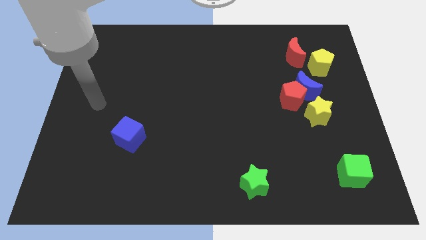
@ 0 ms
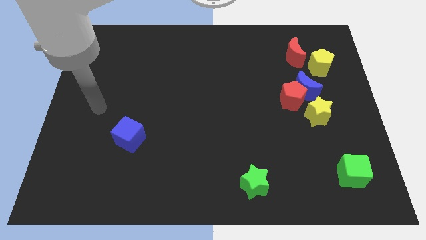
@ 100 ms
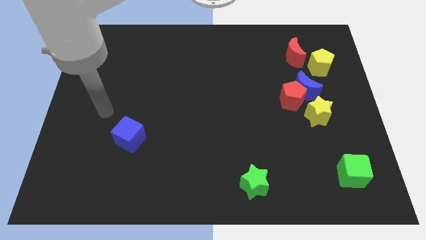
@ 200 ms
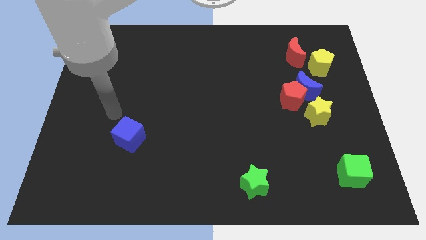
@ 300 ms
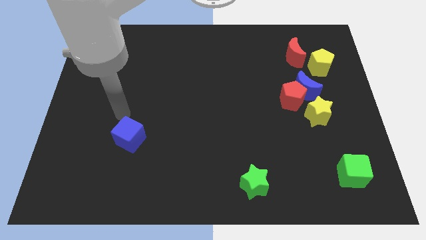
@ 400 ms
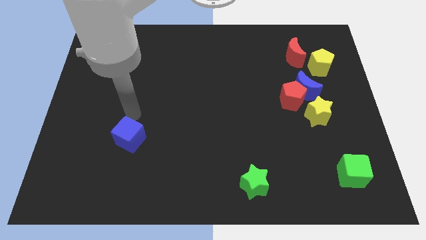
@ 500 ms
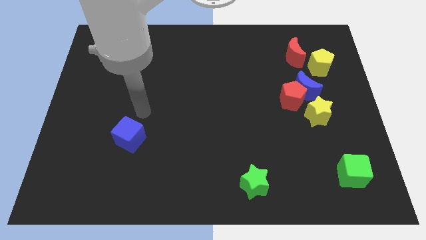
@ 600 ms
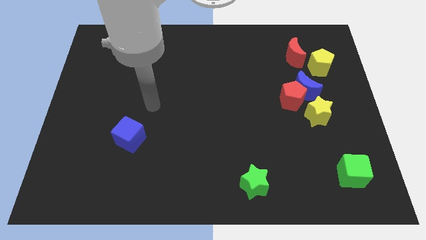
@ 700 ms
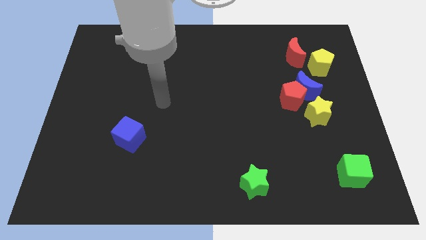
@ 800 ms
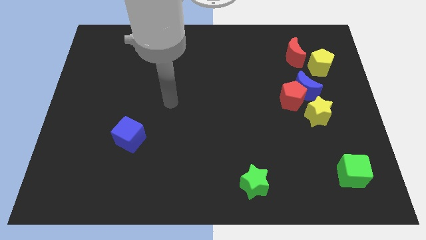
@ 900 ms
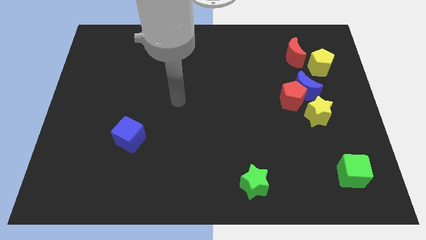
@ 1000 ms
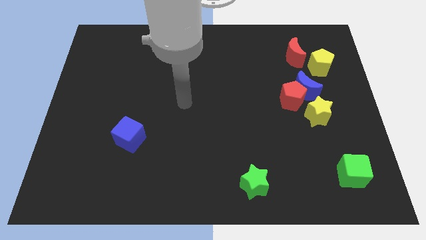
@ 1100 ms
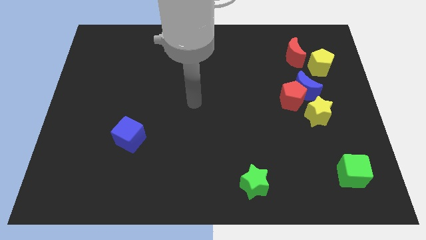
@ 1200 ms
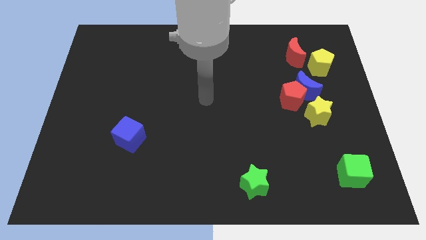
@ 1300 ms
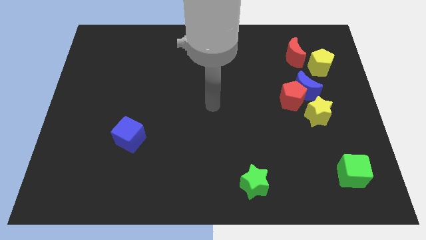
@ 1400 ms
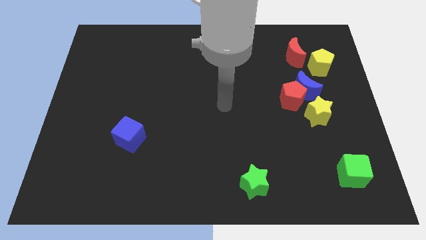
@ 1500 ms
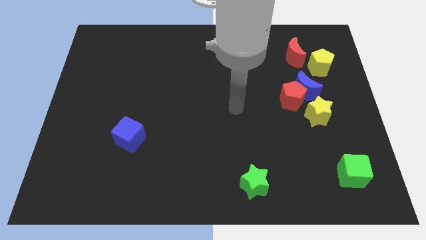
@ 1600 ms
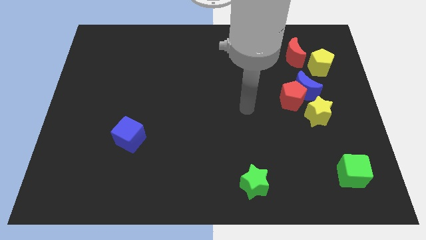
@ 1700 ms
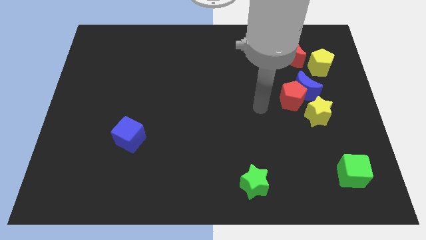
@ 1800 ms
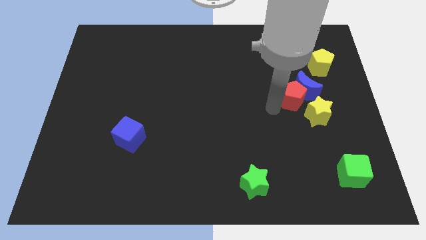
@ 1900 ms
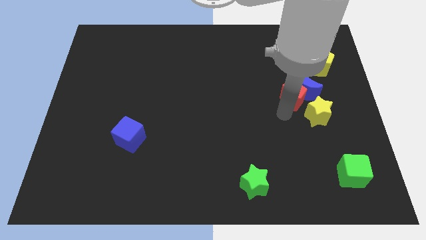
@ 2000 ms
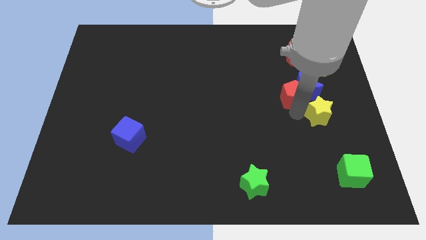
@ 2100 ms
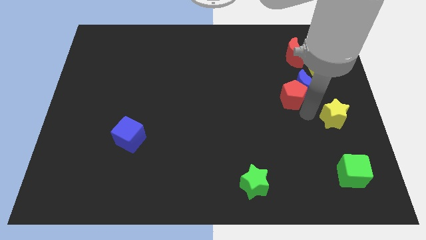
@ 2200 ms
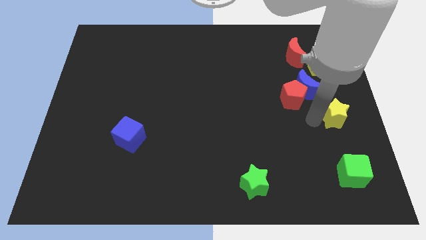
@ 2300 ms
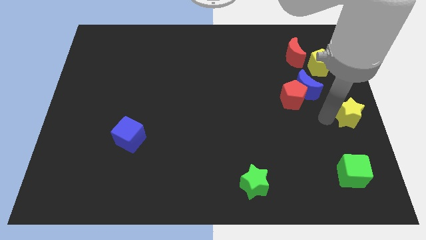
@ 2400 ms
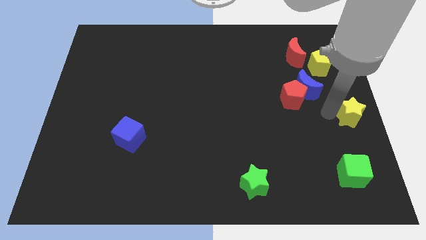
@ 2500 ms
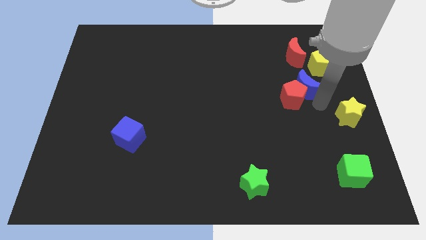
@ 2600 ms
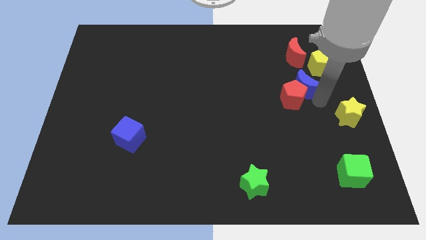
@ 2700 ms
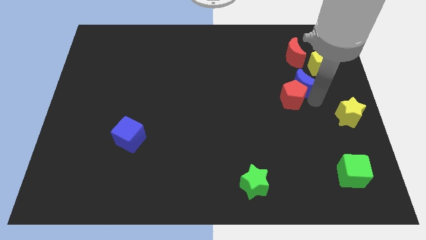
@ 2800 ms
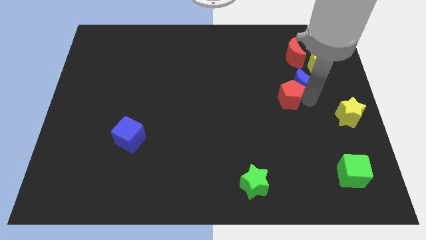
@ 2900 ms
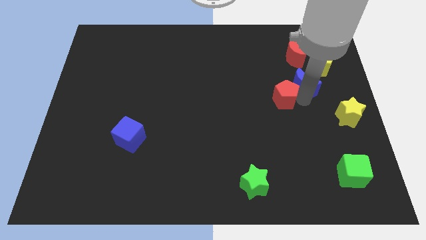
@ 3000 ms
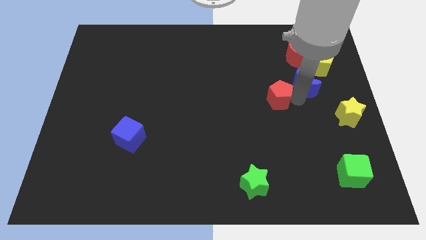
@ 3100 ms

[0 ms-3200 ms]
move the red pentagon away from the blue moon and yellow star

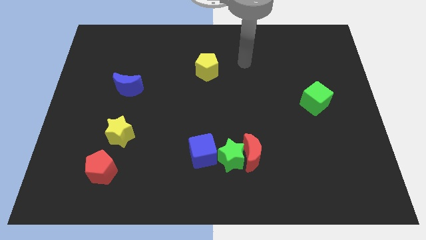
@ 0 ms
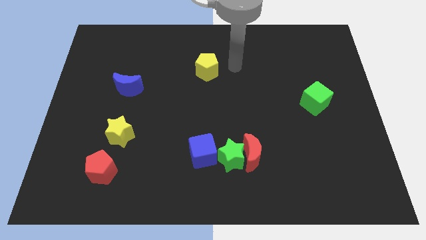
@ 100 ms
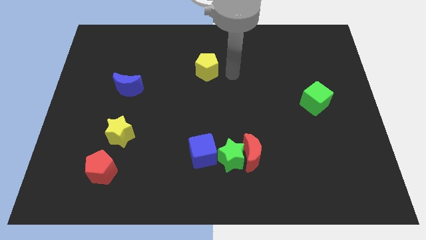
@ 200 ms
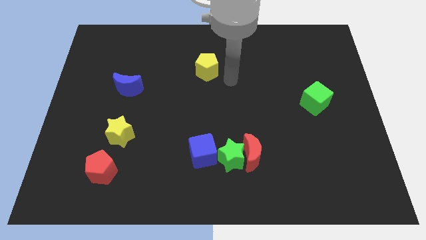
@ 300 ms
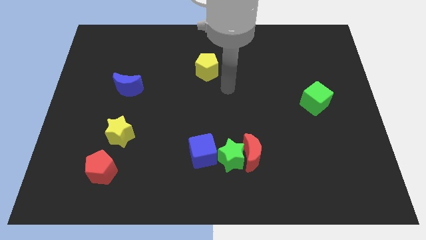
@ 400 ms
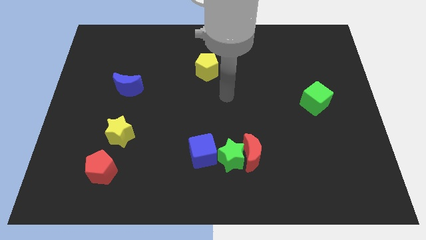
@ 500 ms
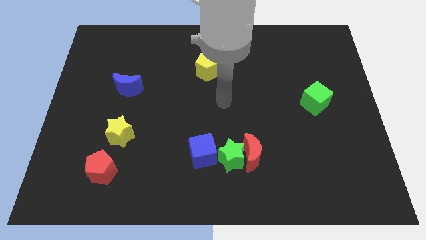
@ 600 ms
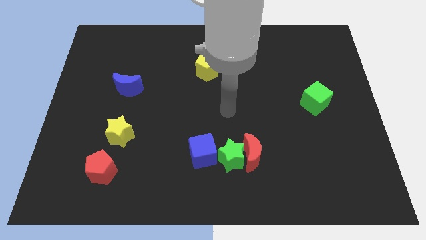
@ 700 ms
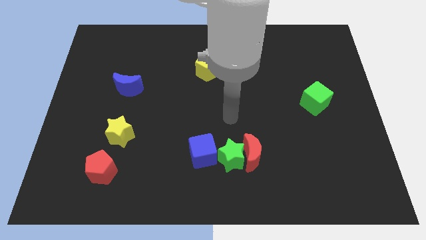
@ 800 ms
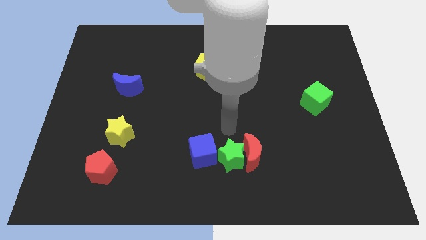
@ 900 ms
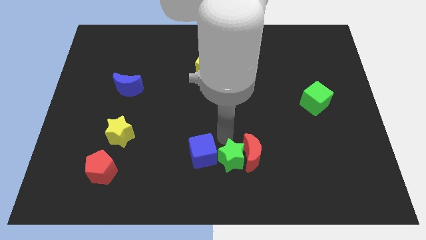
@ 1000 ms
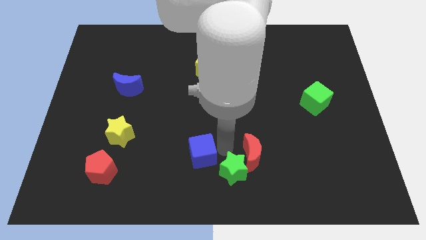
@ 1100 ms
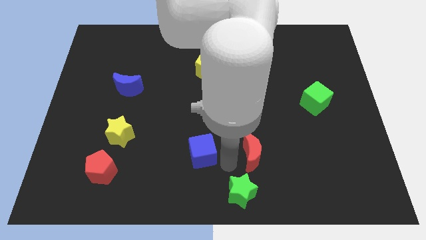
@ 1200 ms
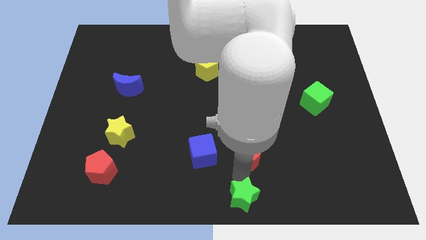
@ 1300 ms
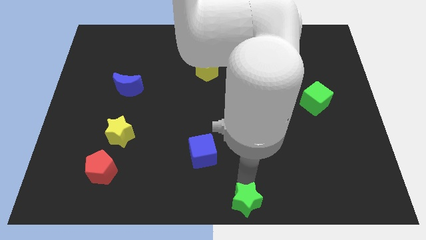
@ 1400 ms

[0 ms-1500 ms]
pull the red moon apart from the green star

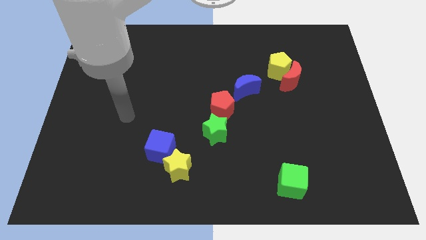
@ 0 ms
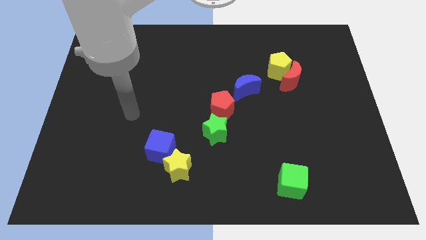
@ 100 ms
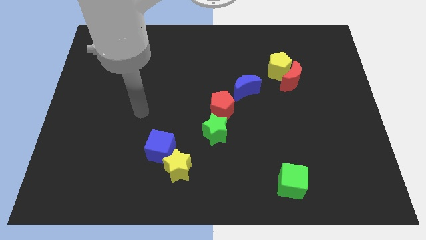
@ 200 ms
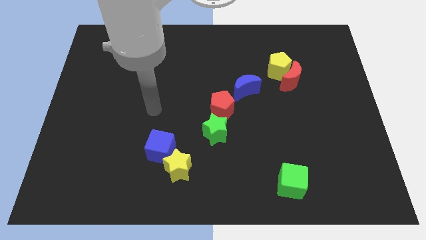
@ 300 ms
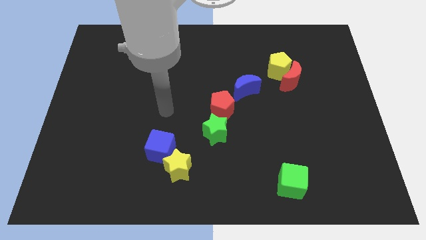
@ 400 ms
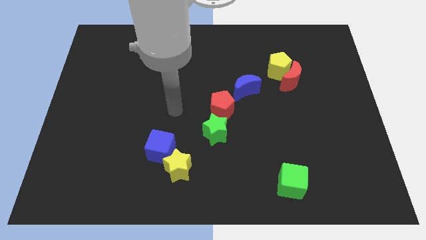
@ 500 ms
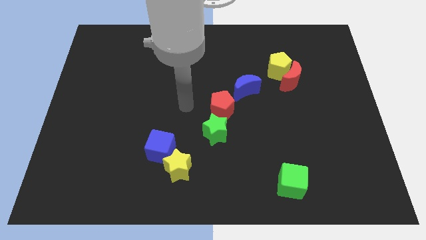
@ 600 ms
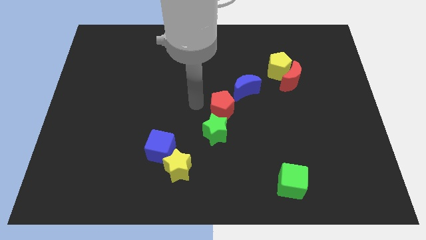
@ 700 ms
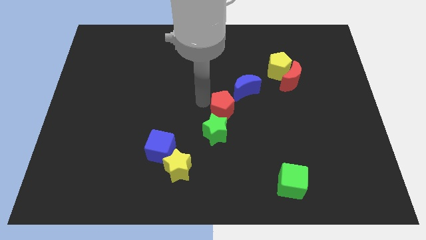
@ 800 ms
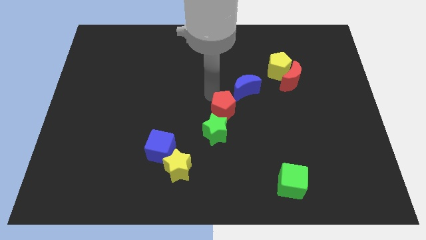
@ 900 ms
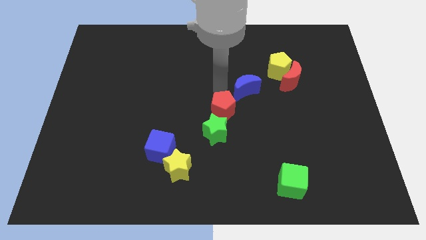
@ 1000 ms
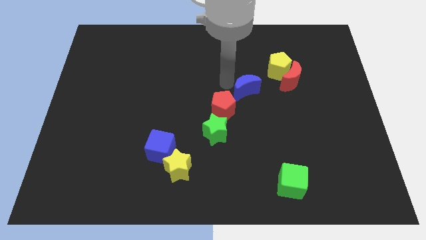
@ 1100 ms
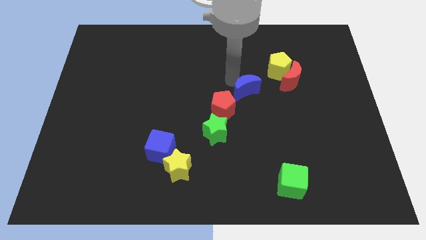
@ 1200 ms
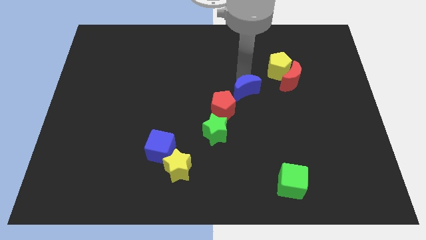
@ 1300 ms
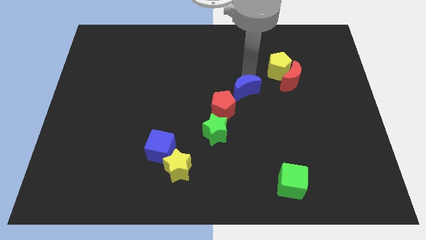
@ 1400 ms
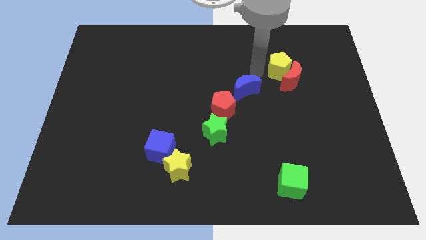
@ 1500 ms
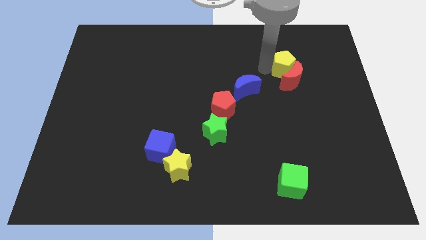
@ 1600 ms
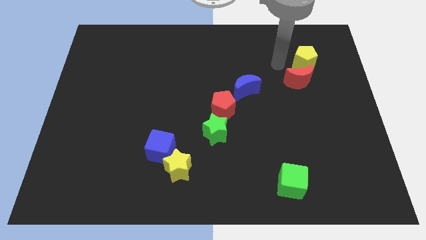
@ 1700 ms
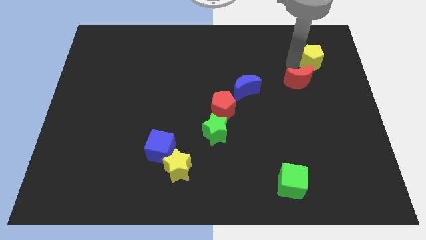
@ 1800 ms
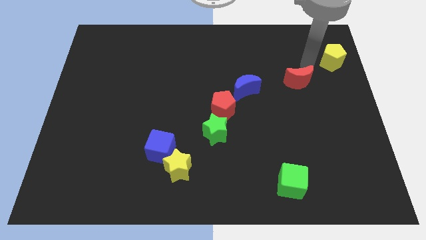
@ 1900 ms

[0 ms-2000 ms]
move the red moon away from the yellow pentagon

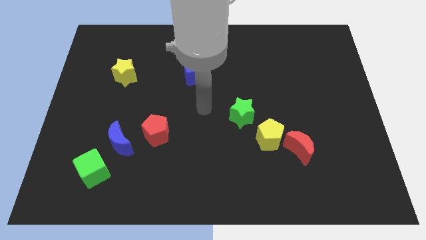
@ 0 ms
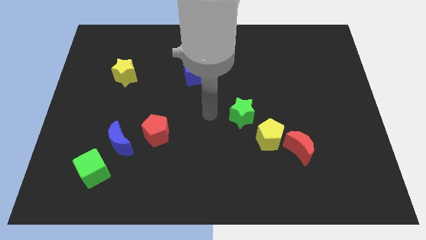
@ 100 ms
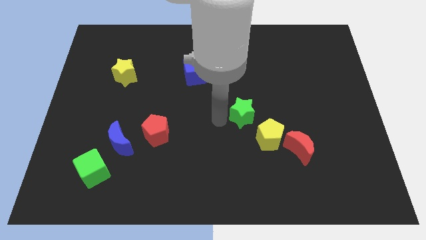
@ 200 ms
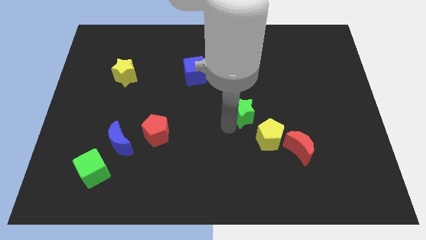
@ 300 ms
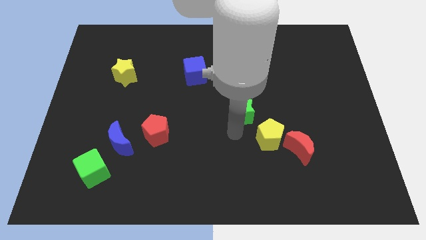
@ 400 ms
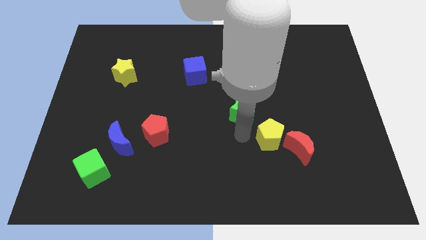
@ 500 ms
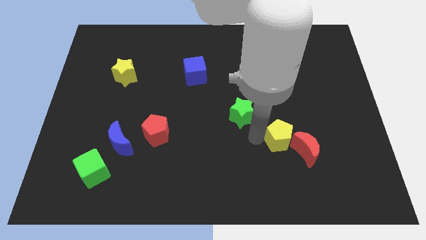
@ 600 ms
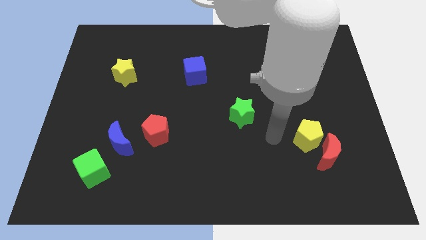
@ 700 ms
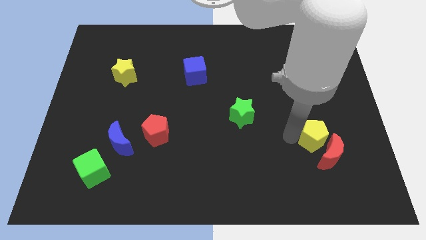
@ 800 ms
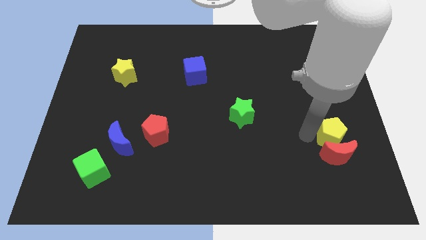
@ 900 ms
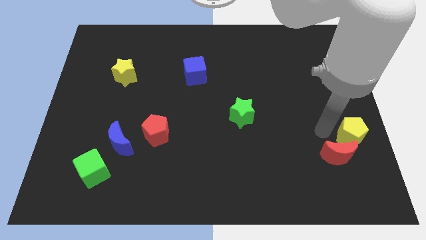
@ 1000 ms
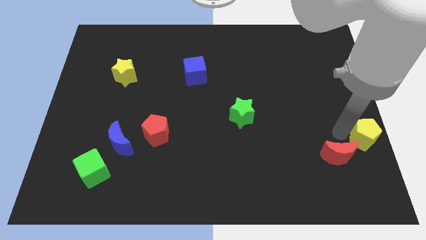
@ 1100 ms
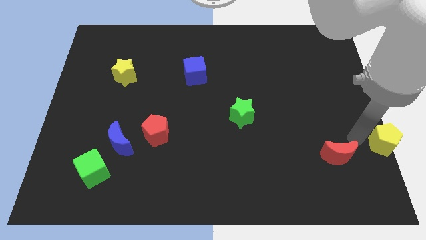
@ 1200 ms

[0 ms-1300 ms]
pull the red moon apart from the yellow pentagon

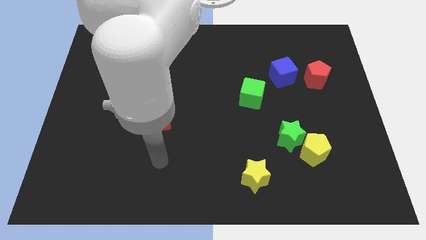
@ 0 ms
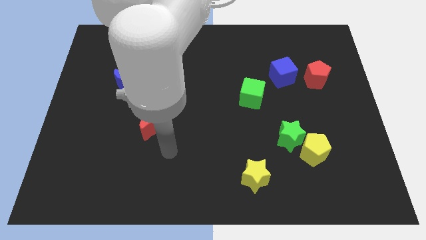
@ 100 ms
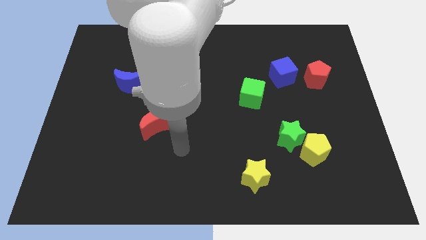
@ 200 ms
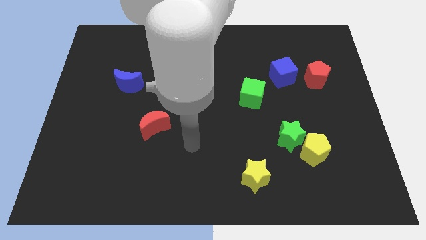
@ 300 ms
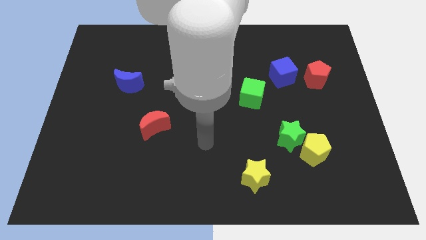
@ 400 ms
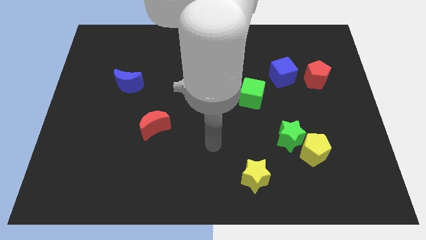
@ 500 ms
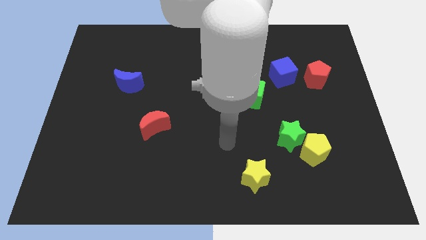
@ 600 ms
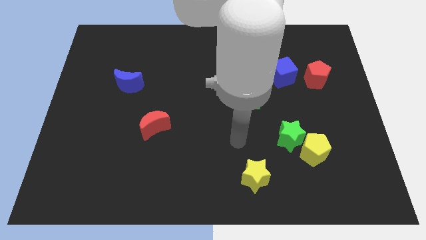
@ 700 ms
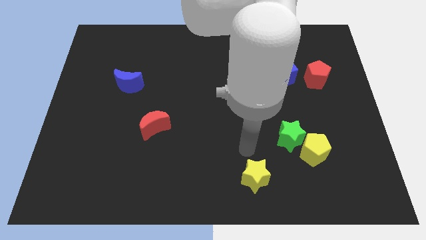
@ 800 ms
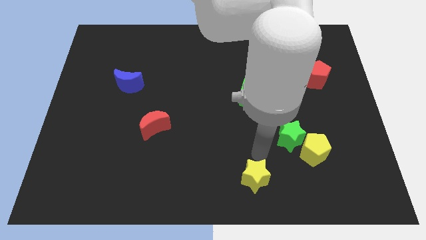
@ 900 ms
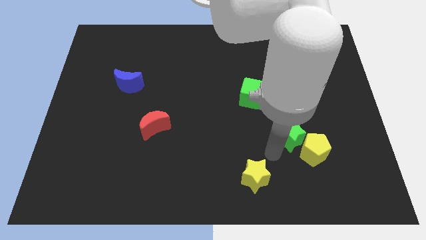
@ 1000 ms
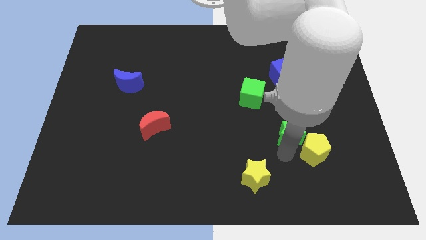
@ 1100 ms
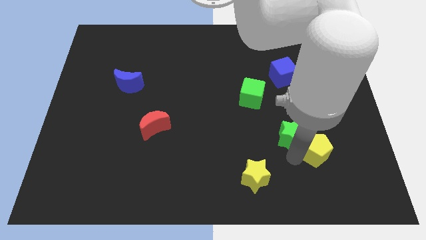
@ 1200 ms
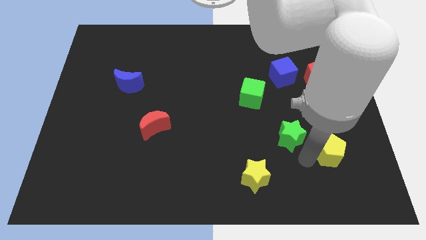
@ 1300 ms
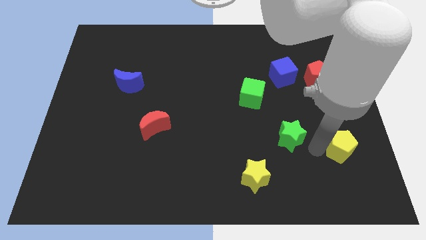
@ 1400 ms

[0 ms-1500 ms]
move the green star away from the yellow pentagon
